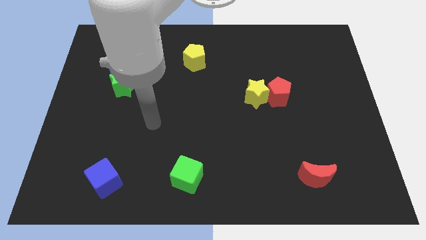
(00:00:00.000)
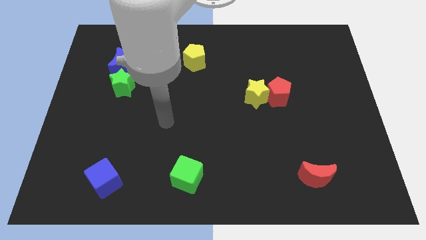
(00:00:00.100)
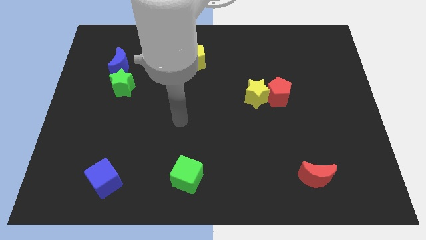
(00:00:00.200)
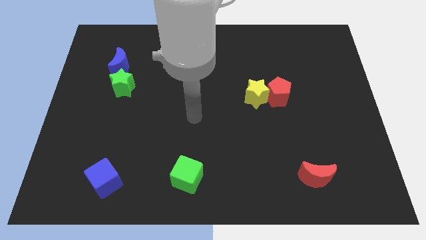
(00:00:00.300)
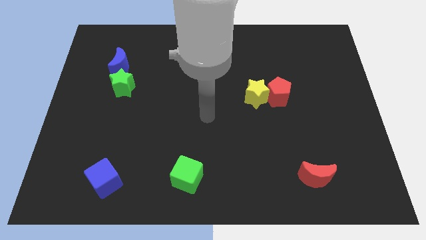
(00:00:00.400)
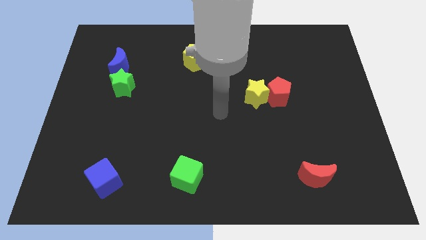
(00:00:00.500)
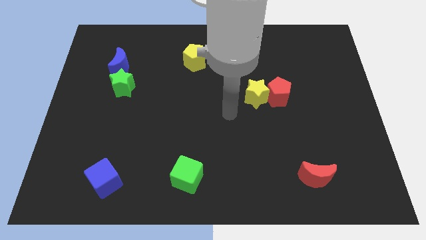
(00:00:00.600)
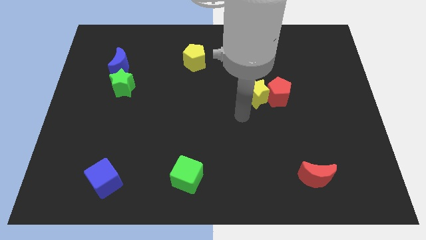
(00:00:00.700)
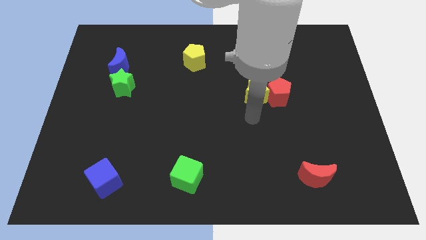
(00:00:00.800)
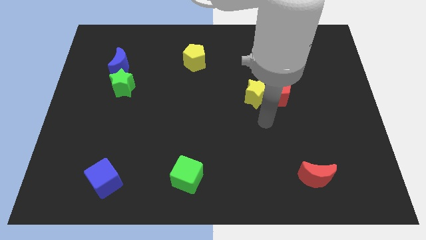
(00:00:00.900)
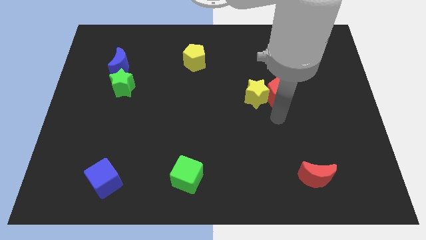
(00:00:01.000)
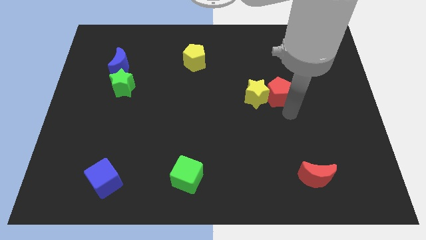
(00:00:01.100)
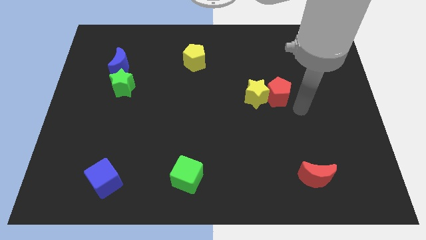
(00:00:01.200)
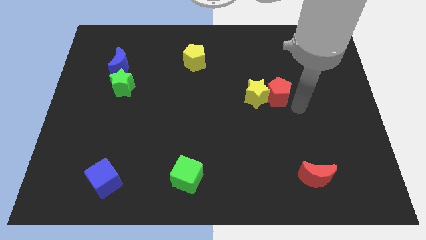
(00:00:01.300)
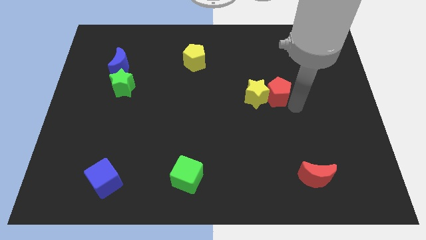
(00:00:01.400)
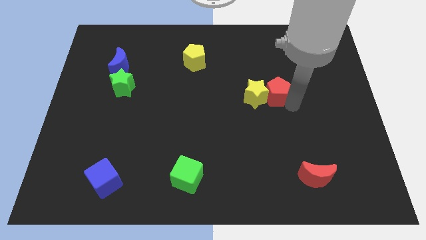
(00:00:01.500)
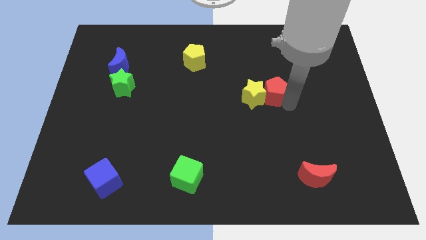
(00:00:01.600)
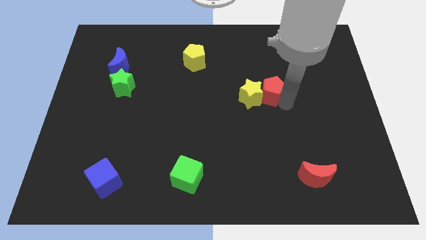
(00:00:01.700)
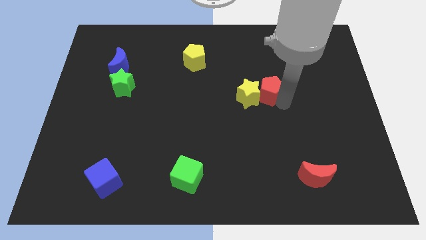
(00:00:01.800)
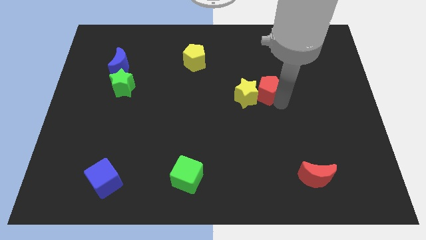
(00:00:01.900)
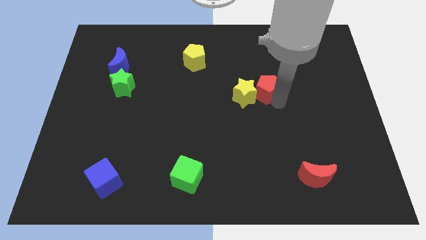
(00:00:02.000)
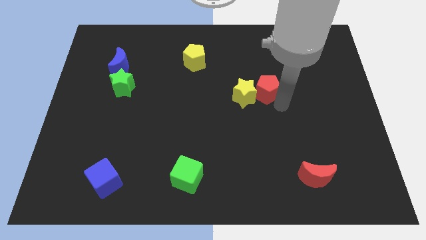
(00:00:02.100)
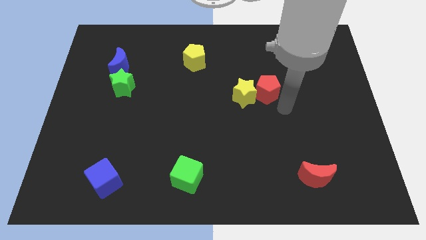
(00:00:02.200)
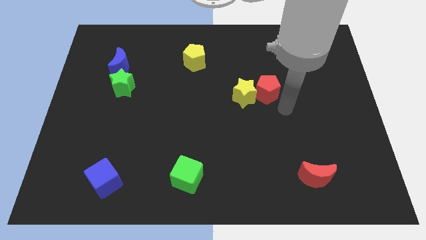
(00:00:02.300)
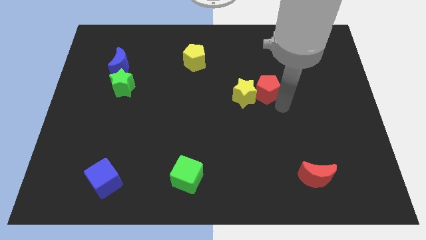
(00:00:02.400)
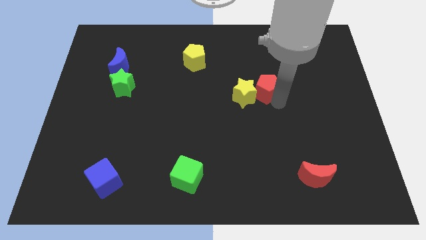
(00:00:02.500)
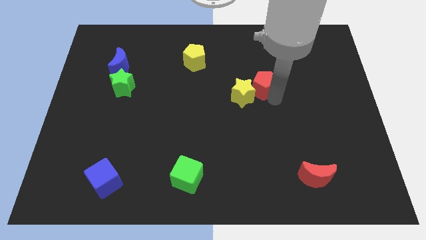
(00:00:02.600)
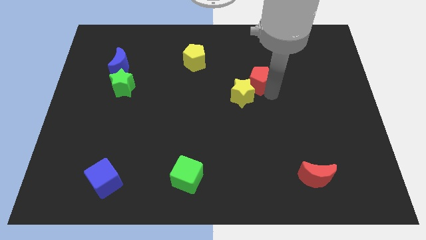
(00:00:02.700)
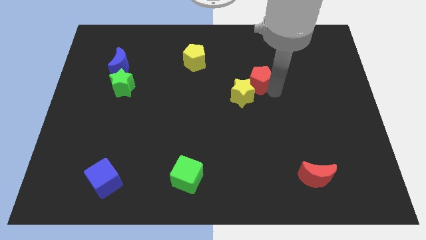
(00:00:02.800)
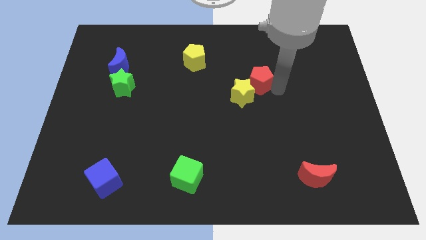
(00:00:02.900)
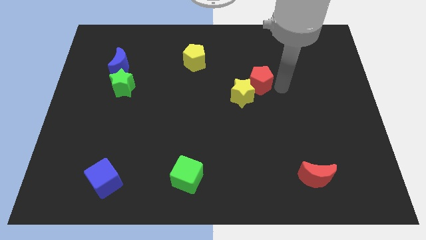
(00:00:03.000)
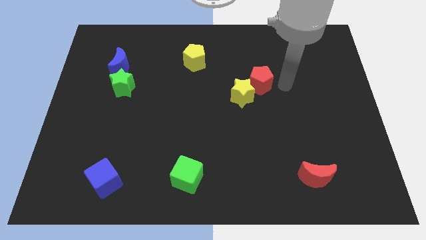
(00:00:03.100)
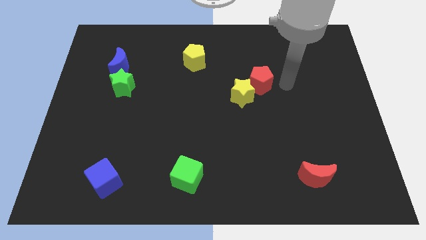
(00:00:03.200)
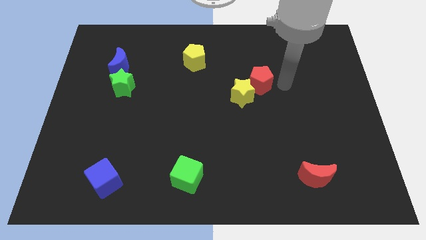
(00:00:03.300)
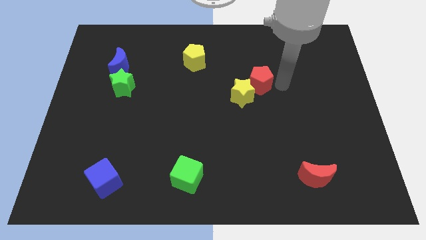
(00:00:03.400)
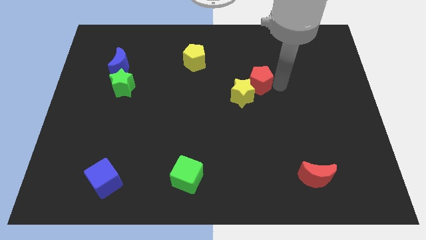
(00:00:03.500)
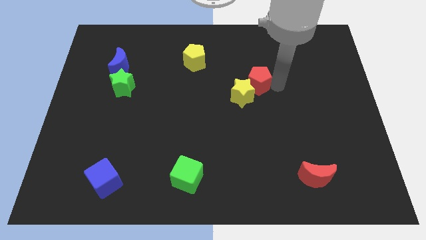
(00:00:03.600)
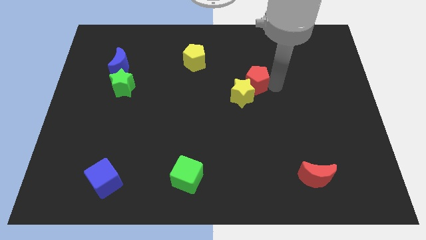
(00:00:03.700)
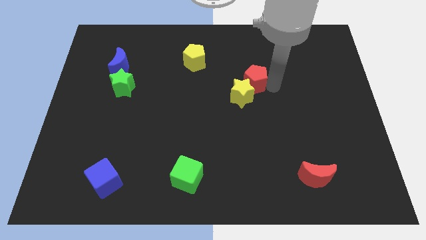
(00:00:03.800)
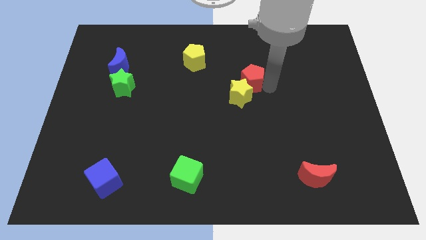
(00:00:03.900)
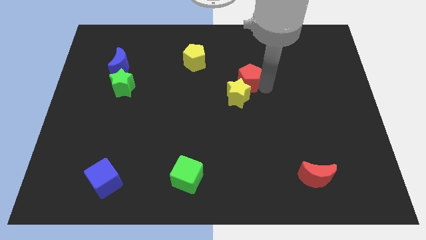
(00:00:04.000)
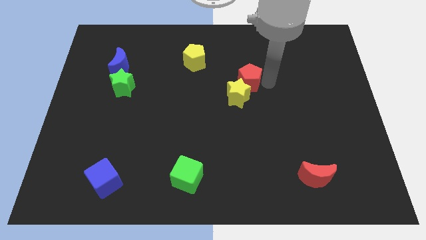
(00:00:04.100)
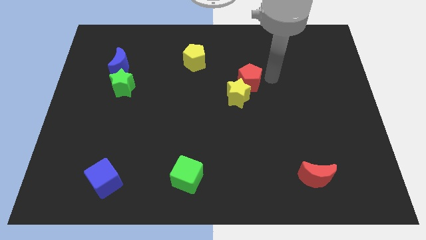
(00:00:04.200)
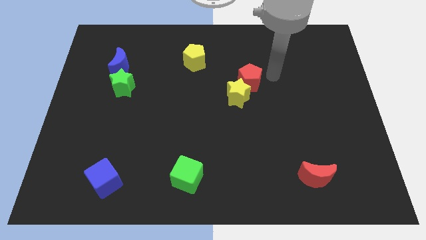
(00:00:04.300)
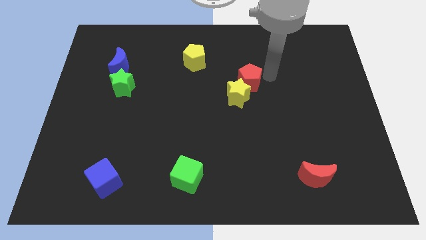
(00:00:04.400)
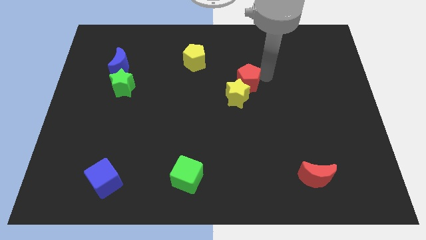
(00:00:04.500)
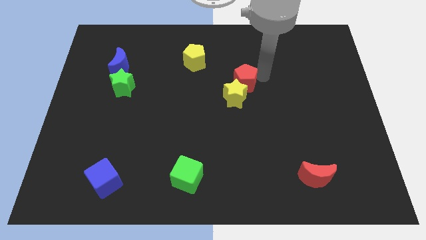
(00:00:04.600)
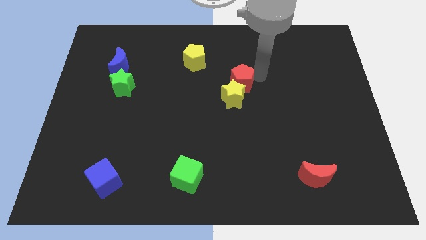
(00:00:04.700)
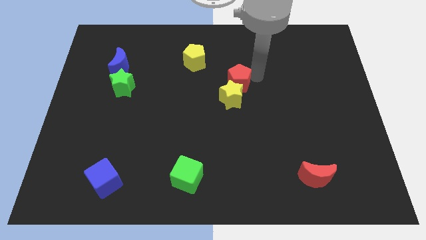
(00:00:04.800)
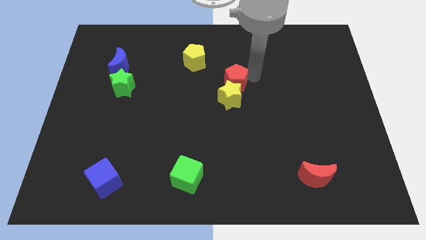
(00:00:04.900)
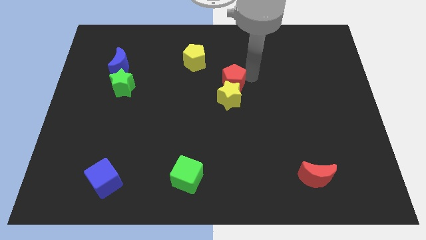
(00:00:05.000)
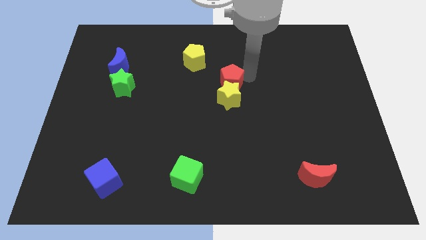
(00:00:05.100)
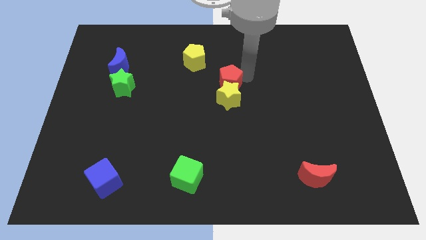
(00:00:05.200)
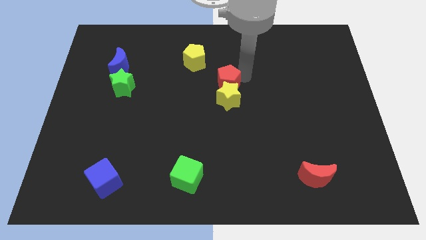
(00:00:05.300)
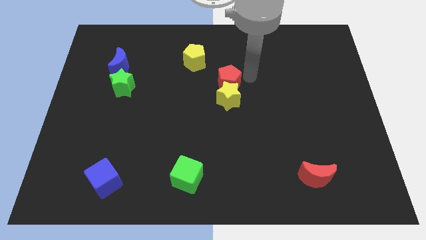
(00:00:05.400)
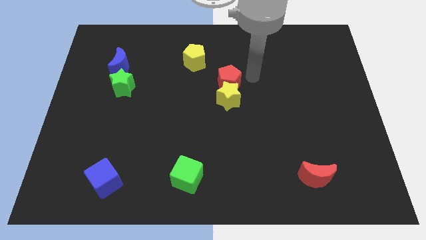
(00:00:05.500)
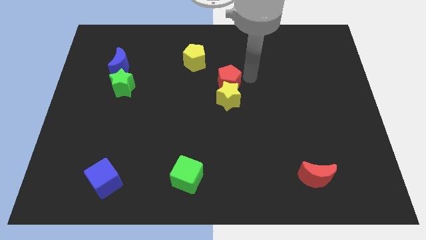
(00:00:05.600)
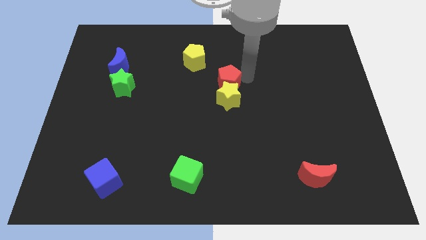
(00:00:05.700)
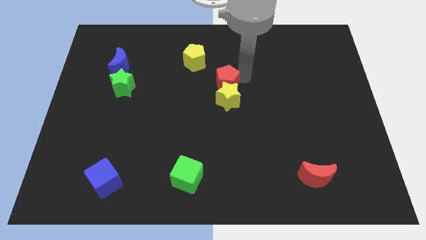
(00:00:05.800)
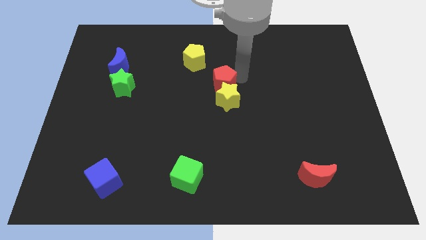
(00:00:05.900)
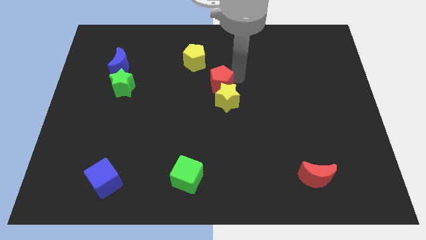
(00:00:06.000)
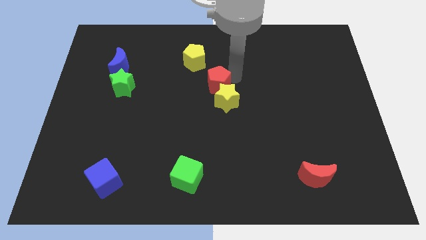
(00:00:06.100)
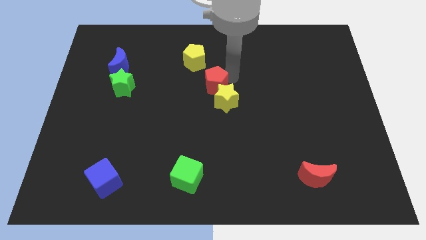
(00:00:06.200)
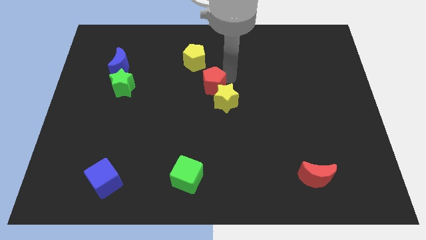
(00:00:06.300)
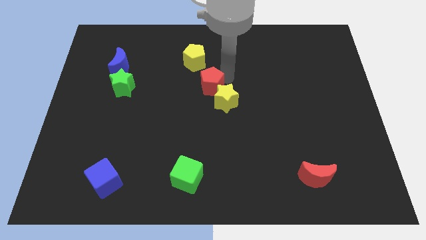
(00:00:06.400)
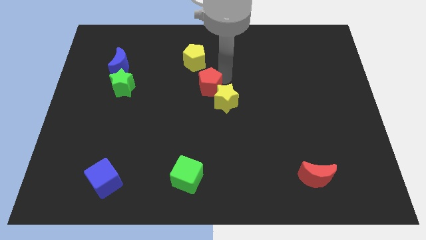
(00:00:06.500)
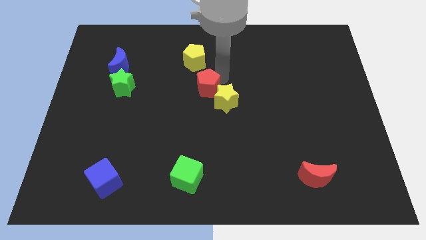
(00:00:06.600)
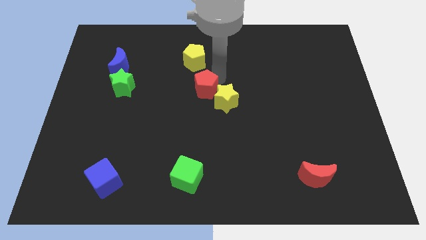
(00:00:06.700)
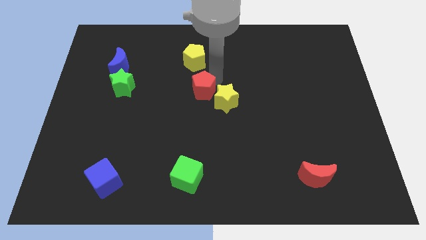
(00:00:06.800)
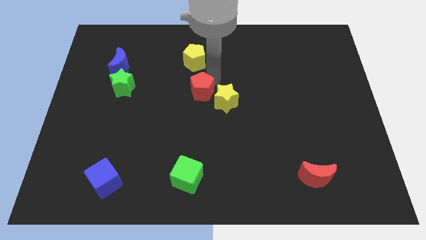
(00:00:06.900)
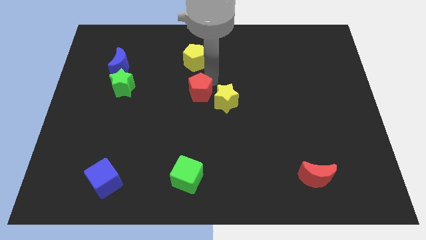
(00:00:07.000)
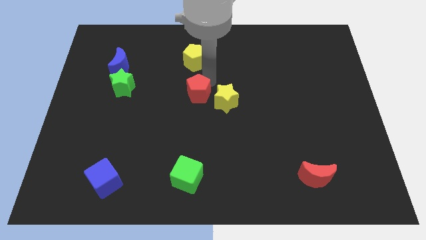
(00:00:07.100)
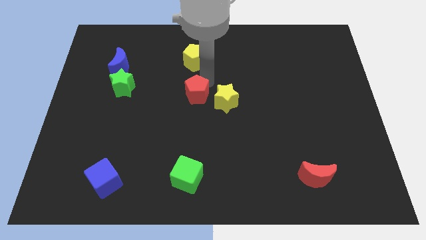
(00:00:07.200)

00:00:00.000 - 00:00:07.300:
slide the red pentagon to the left

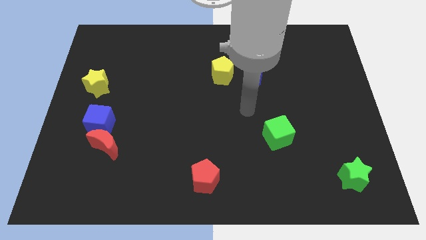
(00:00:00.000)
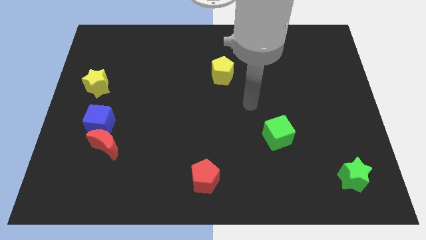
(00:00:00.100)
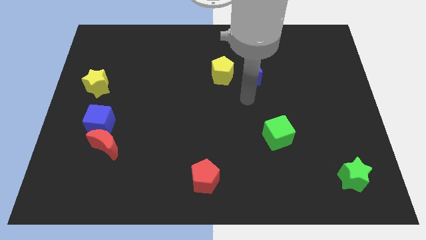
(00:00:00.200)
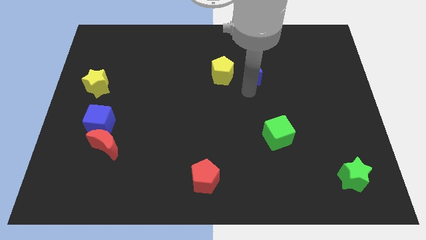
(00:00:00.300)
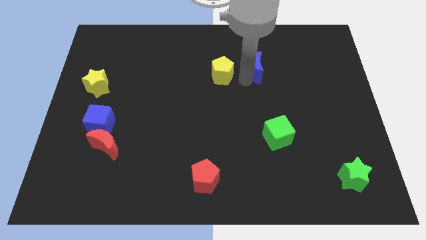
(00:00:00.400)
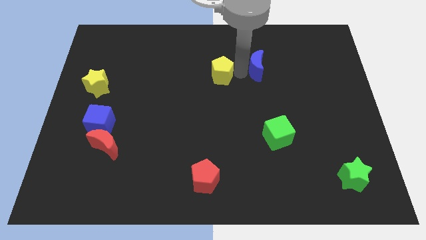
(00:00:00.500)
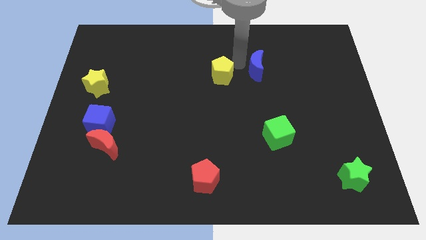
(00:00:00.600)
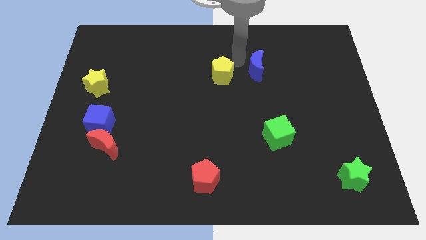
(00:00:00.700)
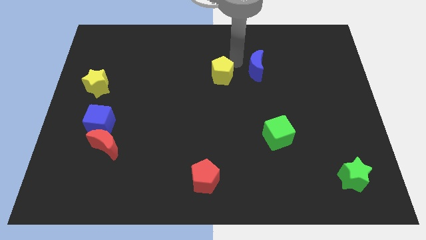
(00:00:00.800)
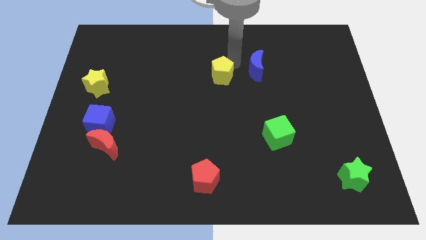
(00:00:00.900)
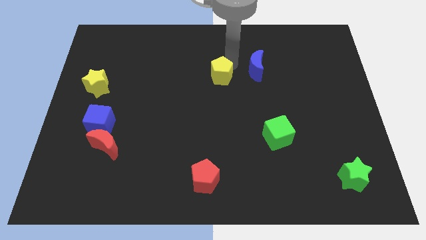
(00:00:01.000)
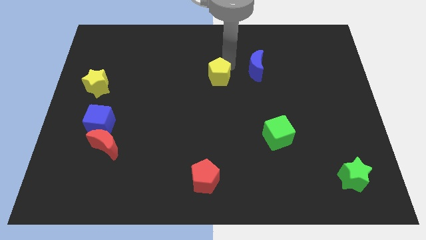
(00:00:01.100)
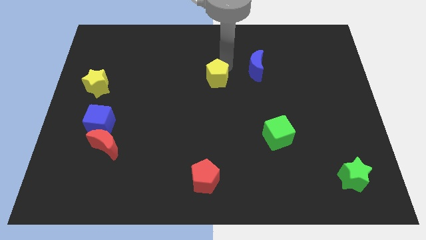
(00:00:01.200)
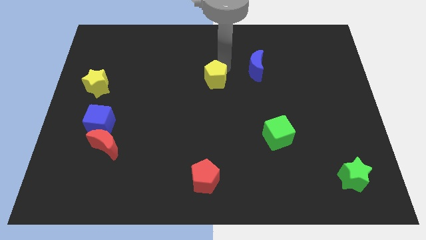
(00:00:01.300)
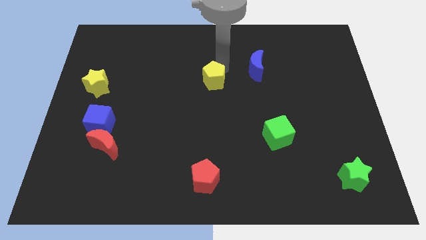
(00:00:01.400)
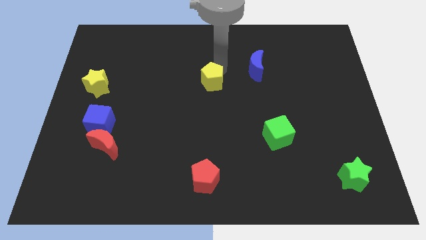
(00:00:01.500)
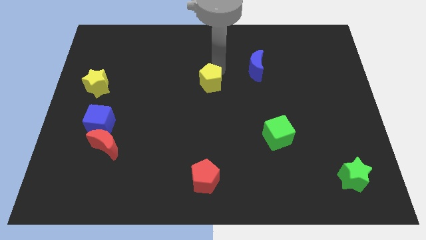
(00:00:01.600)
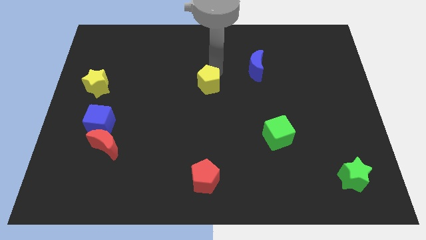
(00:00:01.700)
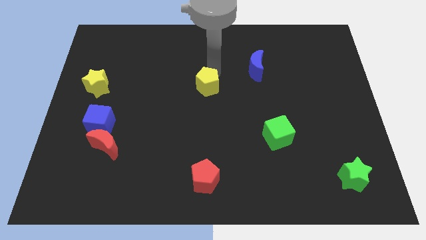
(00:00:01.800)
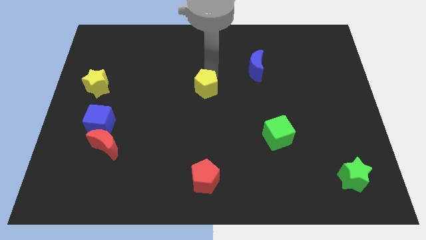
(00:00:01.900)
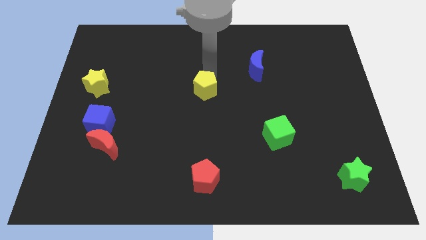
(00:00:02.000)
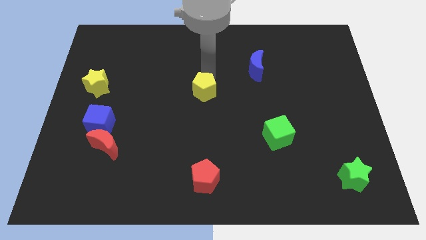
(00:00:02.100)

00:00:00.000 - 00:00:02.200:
move the yellow pentagon down and left somewhat
